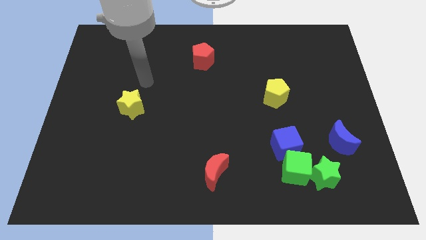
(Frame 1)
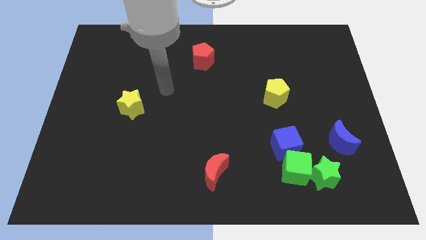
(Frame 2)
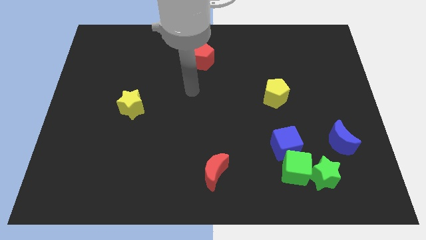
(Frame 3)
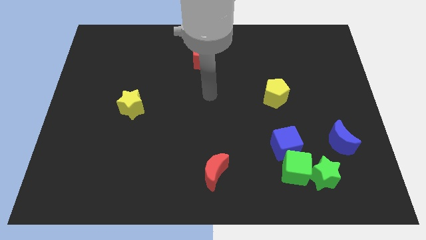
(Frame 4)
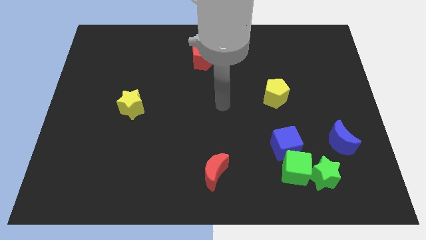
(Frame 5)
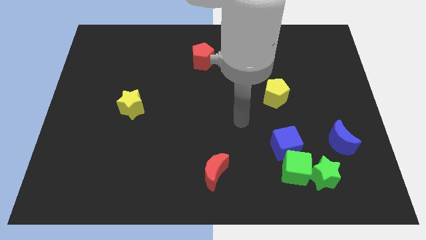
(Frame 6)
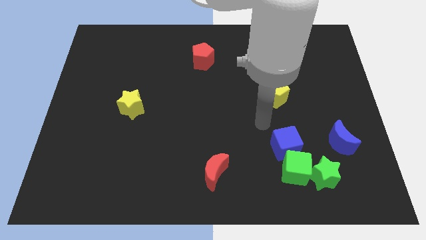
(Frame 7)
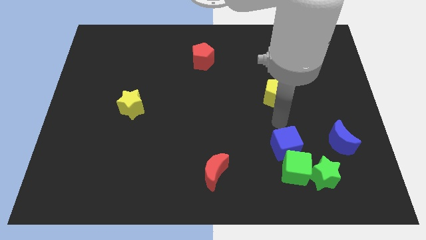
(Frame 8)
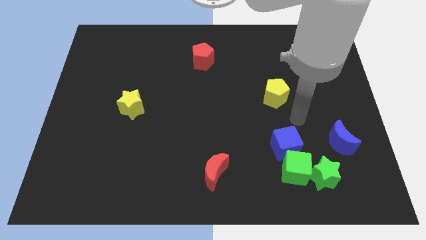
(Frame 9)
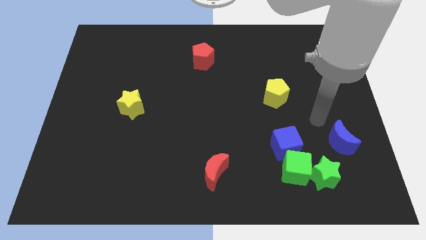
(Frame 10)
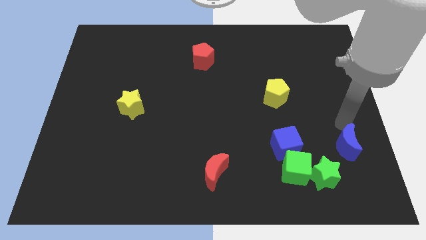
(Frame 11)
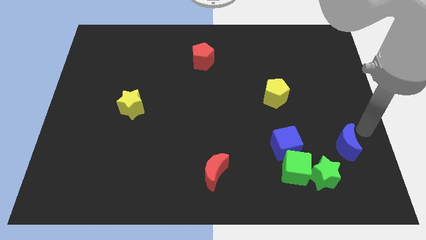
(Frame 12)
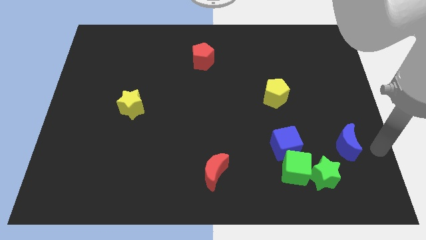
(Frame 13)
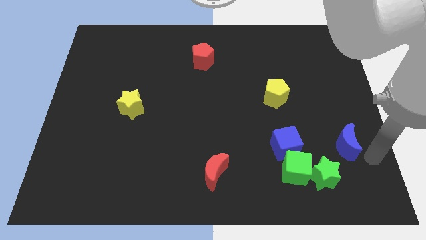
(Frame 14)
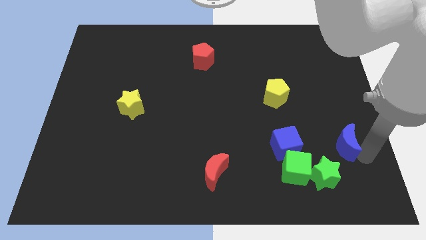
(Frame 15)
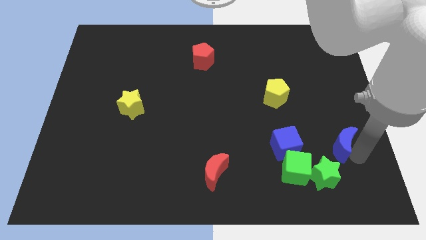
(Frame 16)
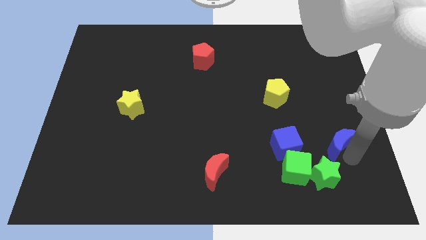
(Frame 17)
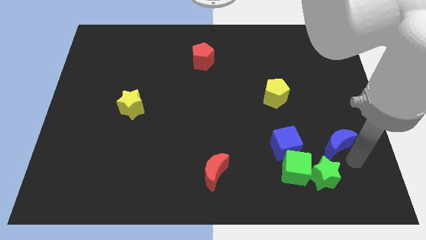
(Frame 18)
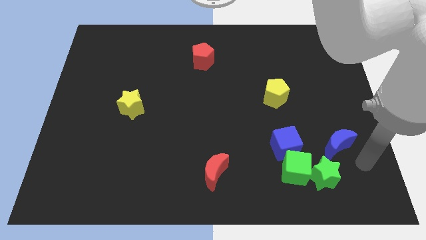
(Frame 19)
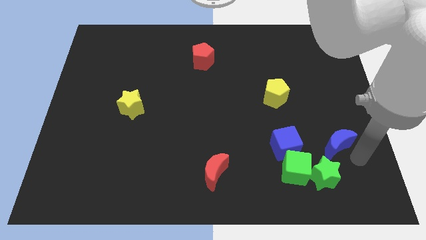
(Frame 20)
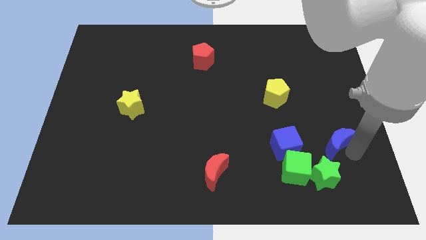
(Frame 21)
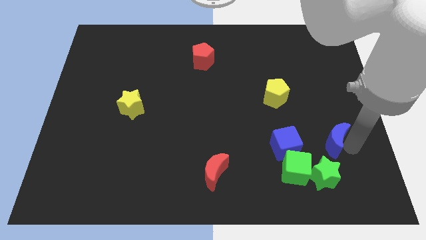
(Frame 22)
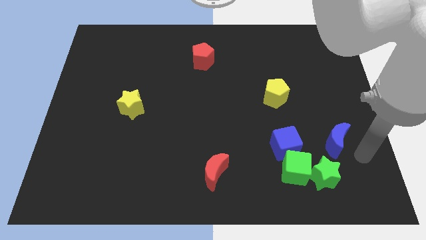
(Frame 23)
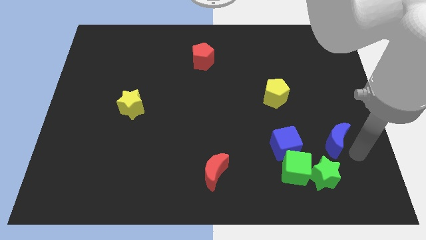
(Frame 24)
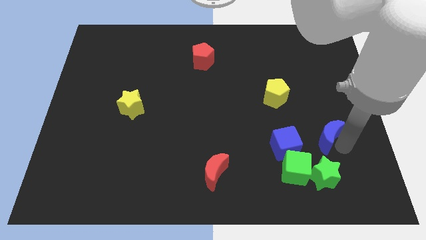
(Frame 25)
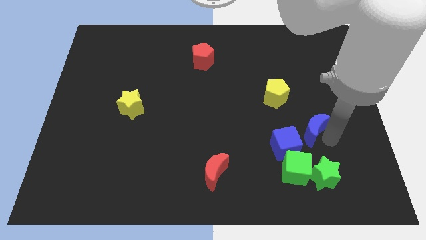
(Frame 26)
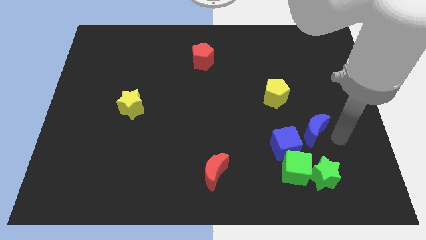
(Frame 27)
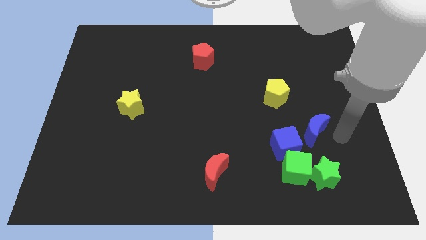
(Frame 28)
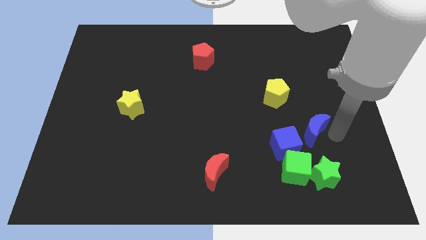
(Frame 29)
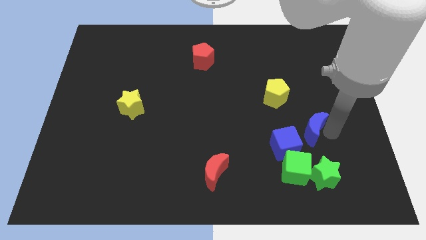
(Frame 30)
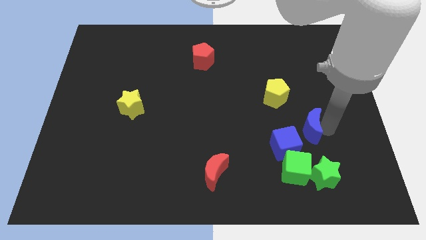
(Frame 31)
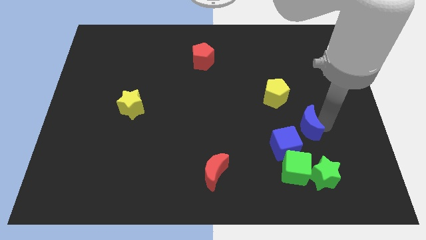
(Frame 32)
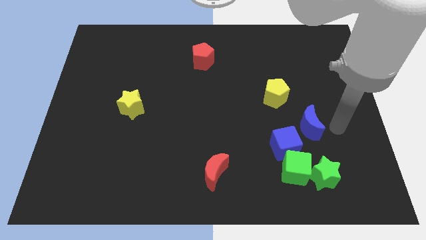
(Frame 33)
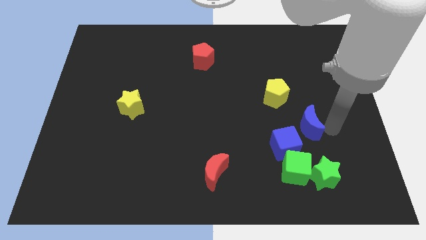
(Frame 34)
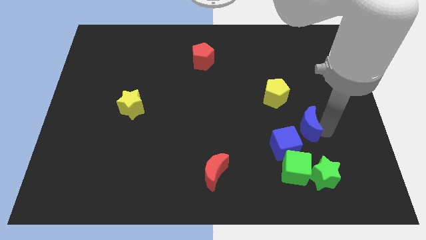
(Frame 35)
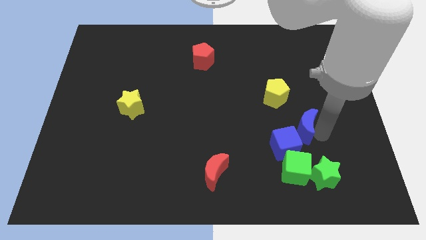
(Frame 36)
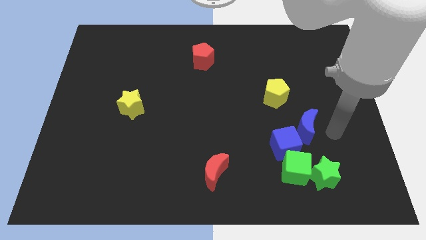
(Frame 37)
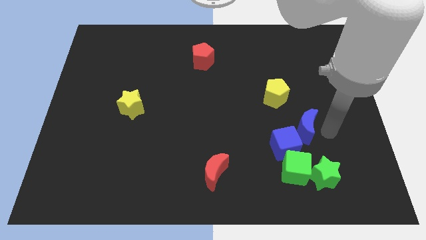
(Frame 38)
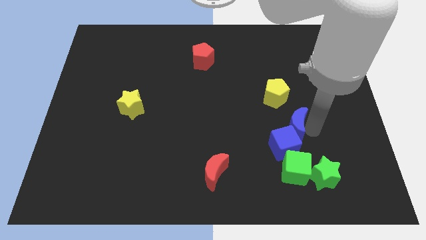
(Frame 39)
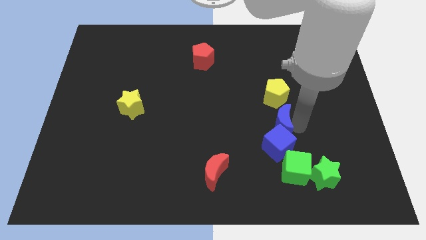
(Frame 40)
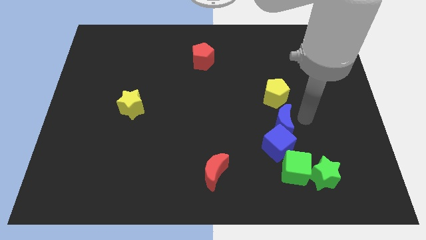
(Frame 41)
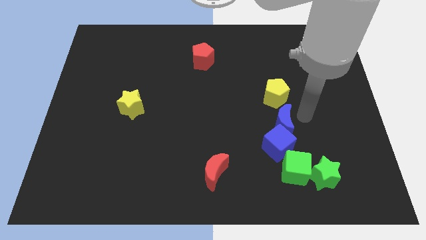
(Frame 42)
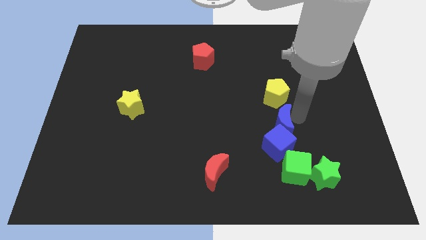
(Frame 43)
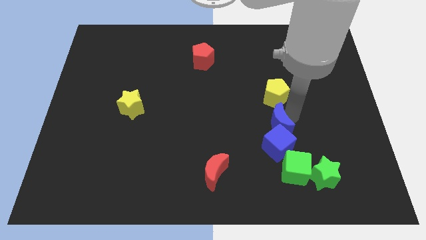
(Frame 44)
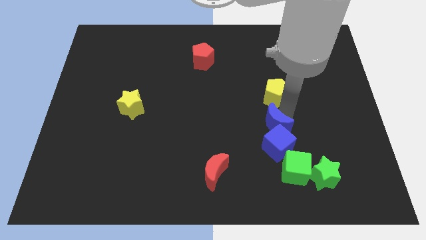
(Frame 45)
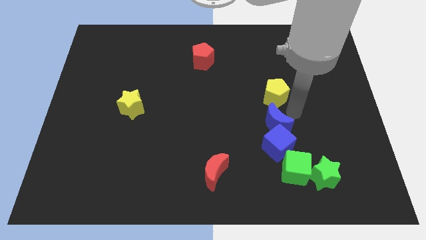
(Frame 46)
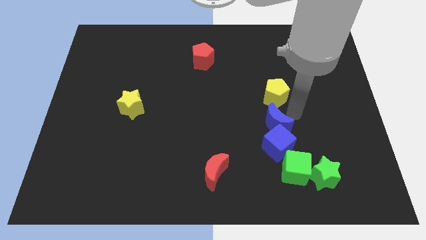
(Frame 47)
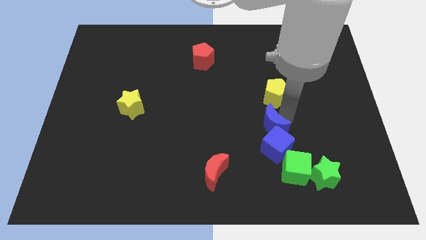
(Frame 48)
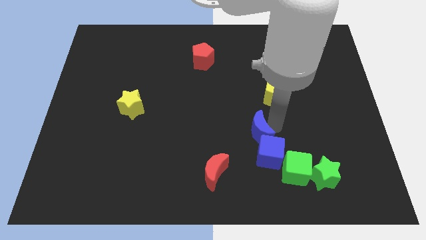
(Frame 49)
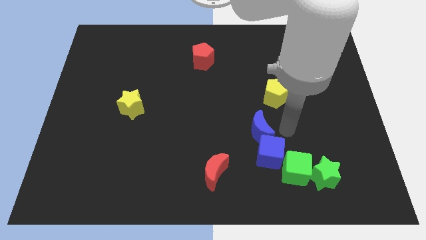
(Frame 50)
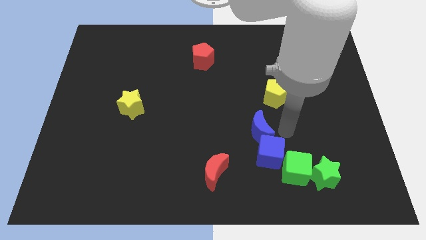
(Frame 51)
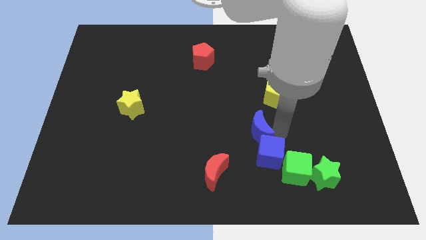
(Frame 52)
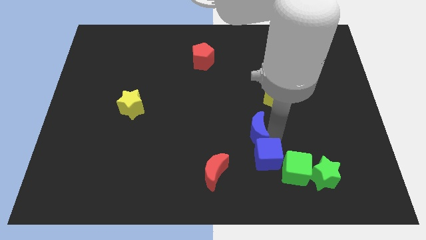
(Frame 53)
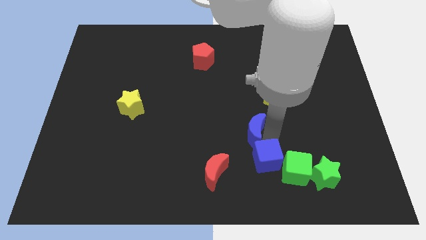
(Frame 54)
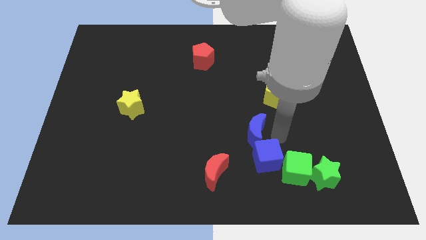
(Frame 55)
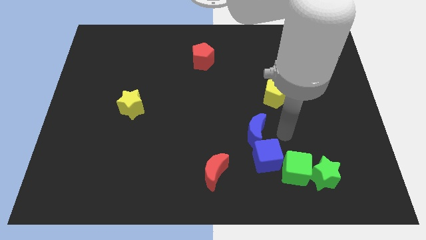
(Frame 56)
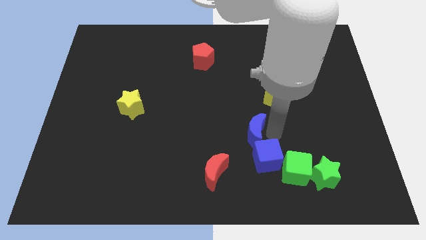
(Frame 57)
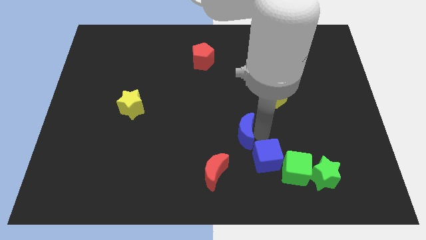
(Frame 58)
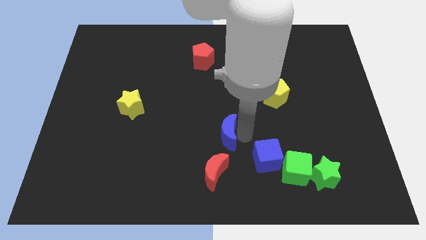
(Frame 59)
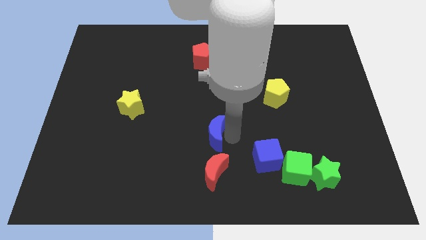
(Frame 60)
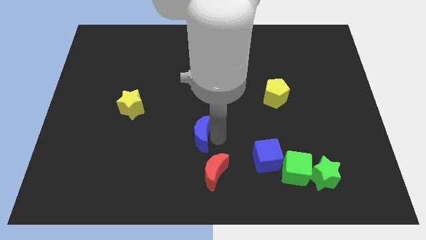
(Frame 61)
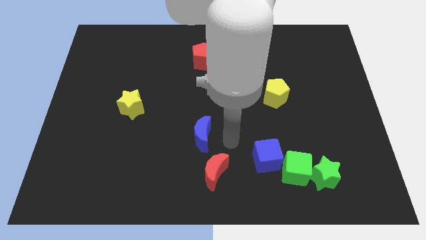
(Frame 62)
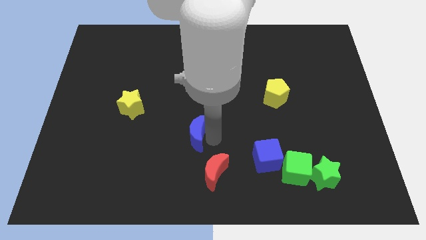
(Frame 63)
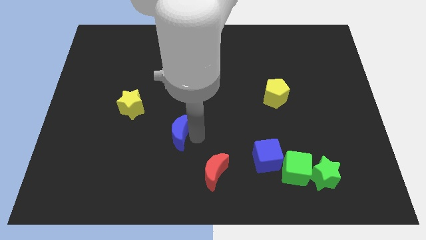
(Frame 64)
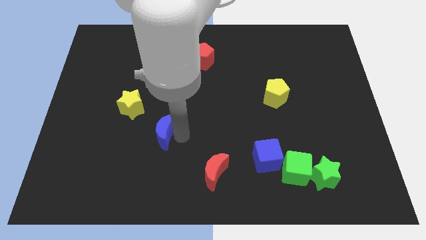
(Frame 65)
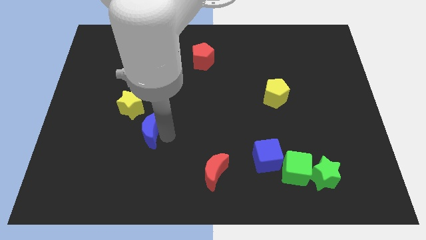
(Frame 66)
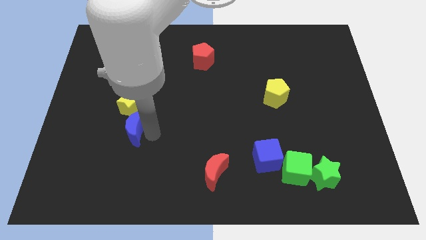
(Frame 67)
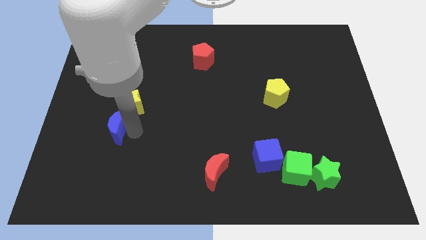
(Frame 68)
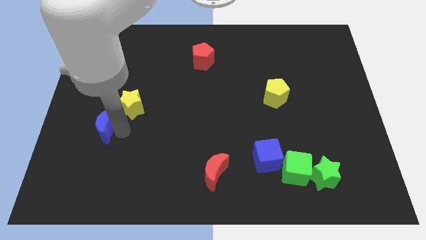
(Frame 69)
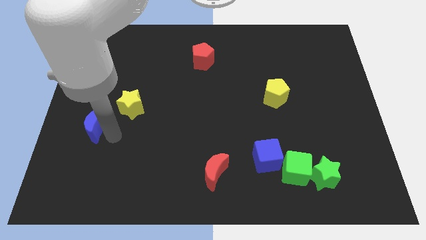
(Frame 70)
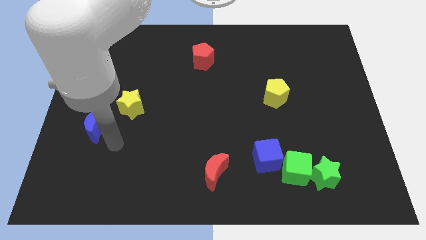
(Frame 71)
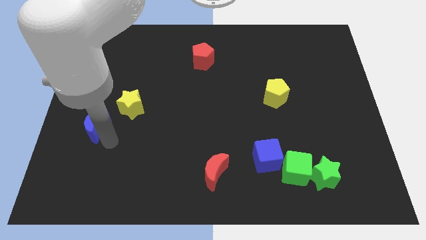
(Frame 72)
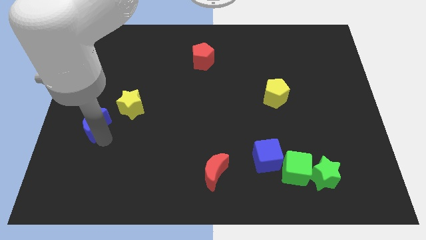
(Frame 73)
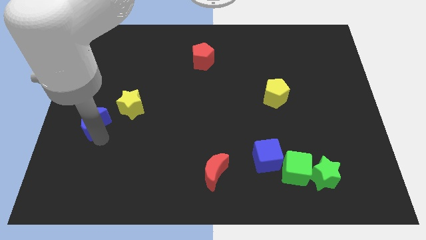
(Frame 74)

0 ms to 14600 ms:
slide the blue moon to the left side of the board
